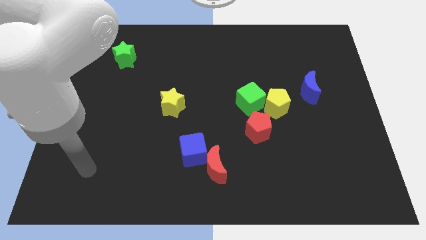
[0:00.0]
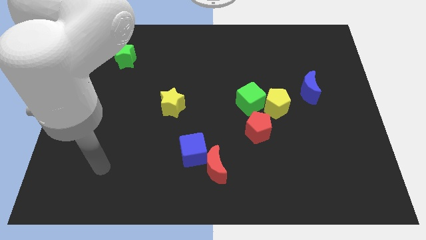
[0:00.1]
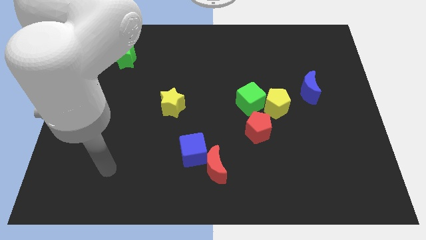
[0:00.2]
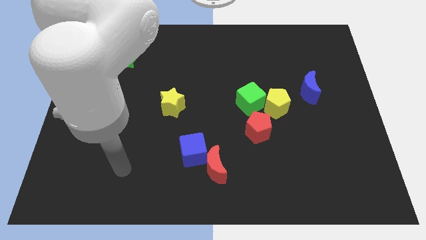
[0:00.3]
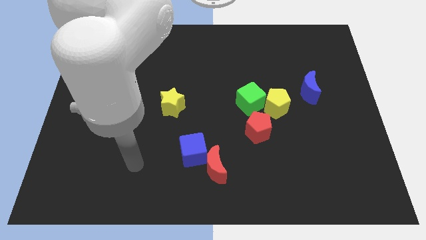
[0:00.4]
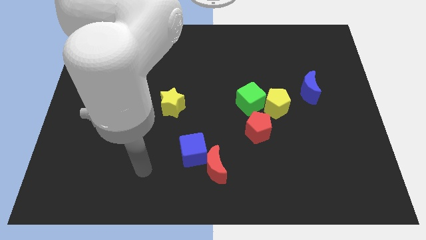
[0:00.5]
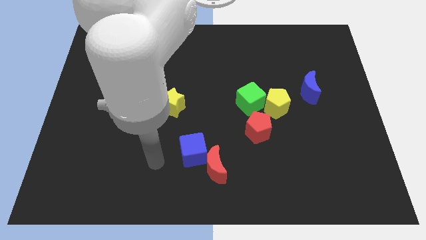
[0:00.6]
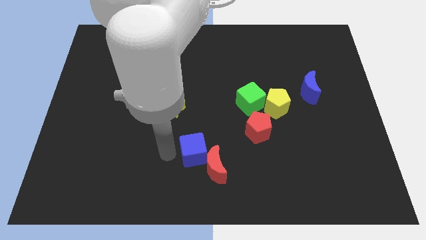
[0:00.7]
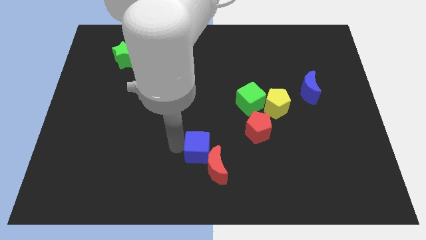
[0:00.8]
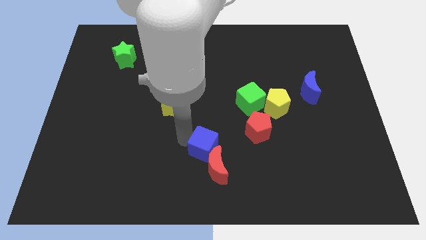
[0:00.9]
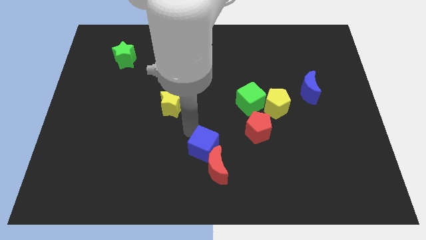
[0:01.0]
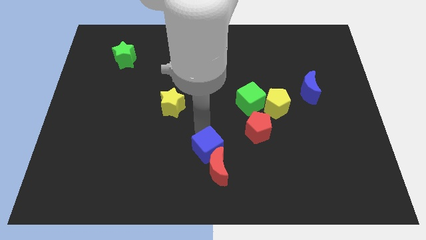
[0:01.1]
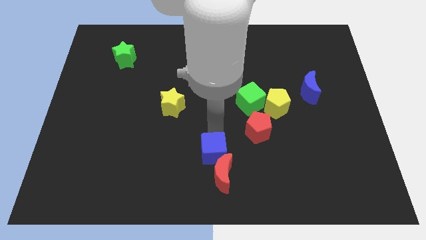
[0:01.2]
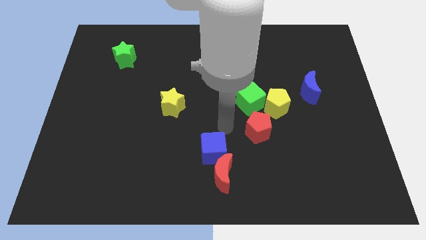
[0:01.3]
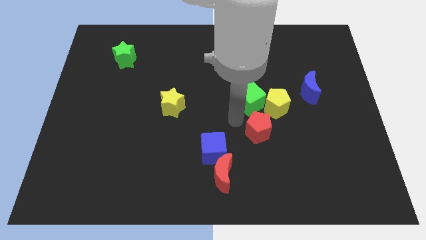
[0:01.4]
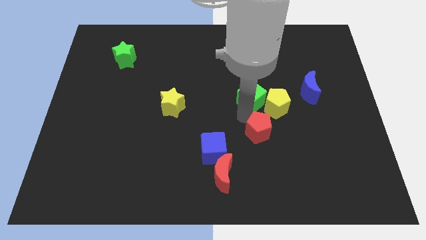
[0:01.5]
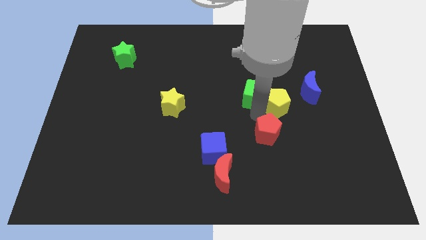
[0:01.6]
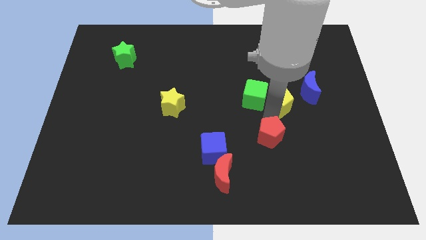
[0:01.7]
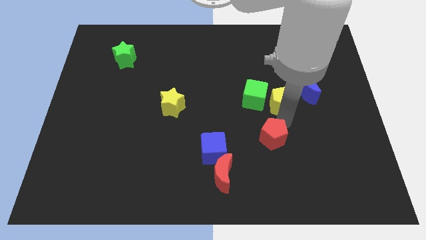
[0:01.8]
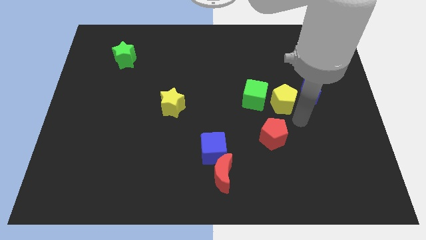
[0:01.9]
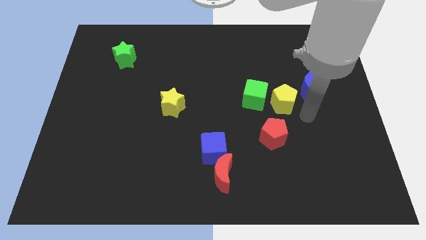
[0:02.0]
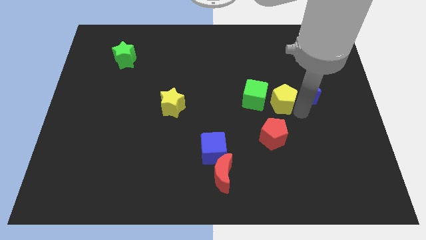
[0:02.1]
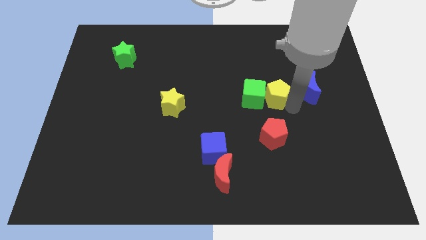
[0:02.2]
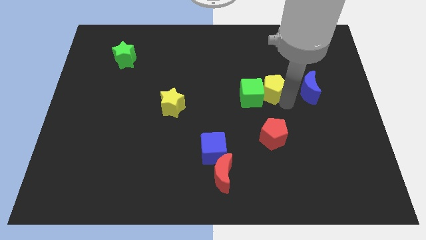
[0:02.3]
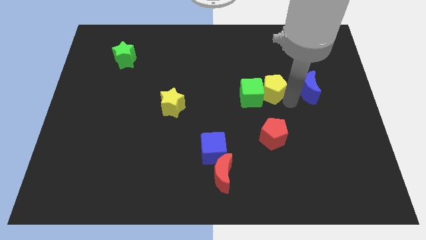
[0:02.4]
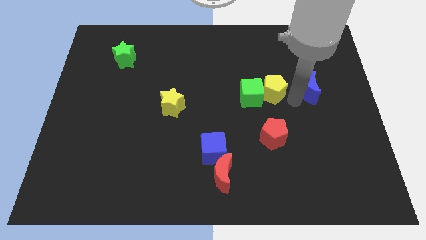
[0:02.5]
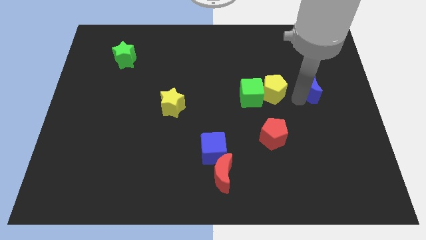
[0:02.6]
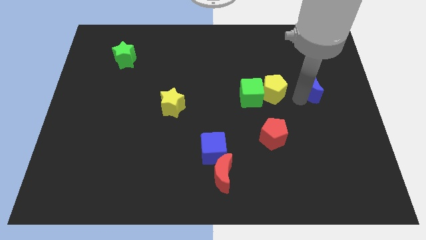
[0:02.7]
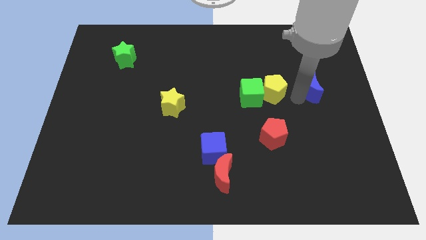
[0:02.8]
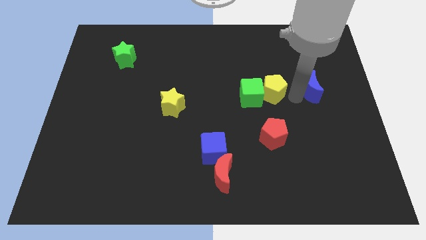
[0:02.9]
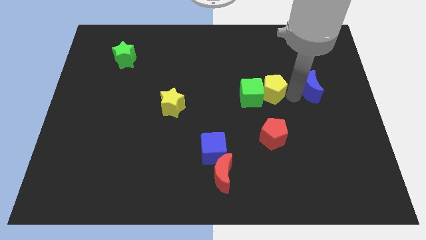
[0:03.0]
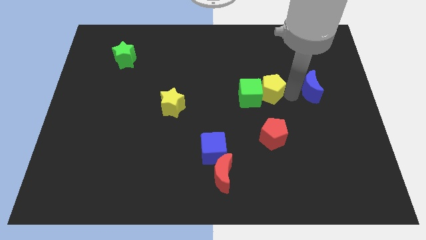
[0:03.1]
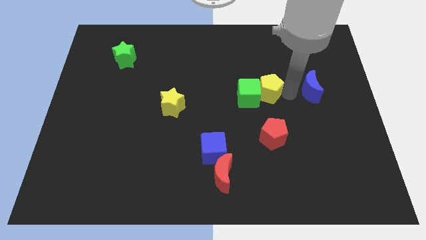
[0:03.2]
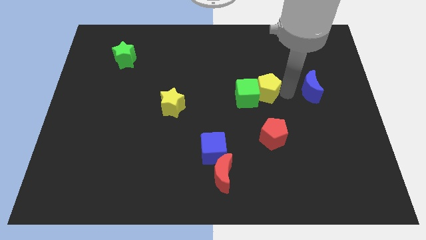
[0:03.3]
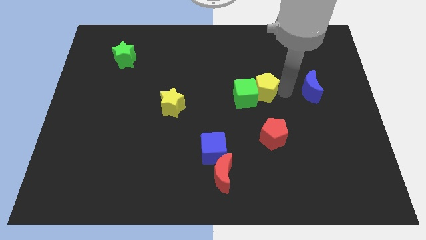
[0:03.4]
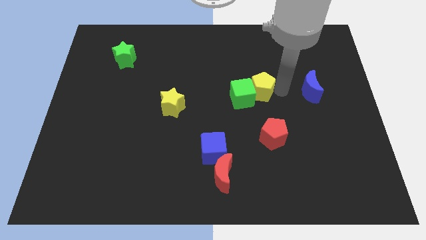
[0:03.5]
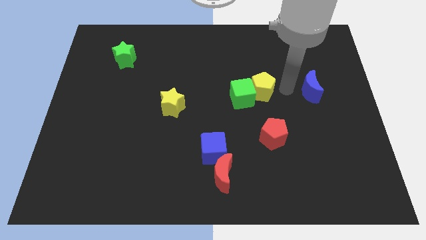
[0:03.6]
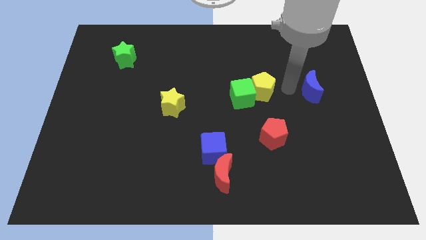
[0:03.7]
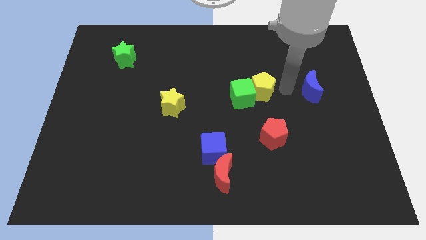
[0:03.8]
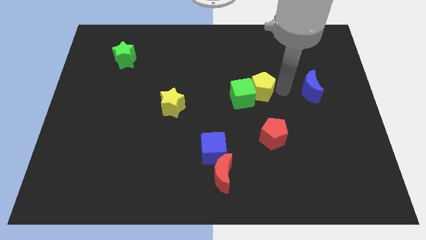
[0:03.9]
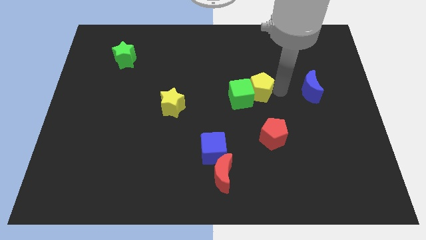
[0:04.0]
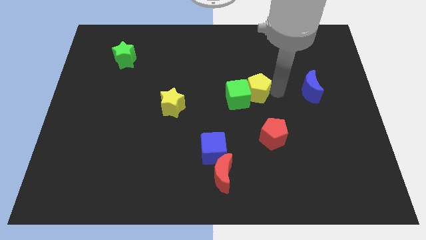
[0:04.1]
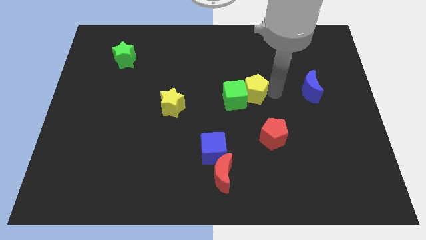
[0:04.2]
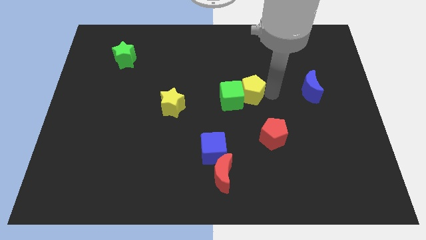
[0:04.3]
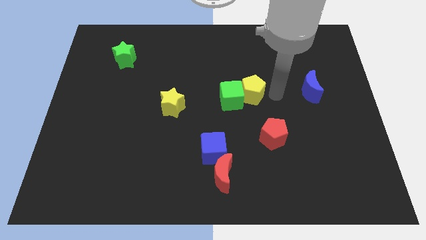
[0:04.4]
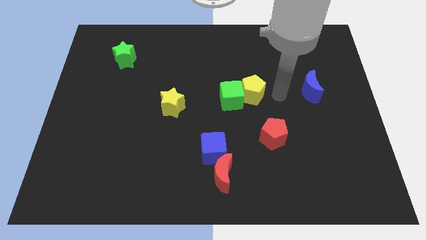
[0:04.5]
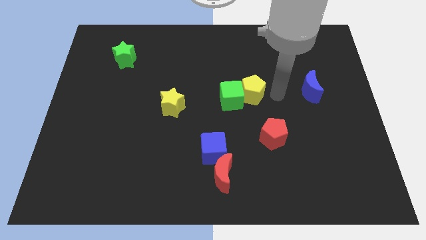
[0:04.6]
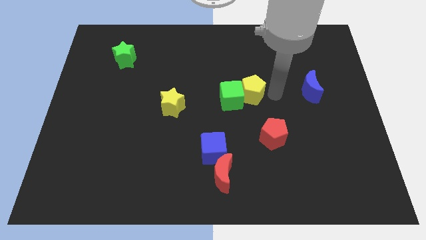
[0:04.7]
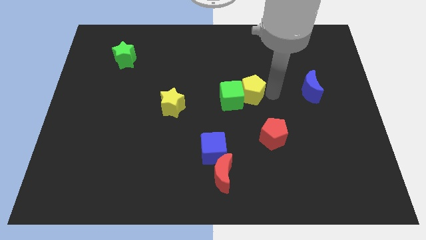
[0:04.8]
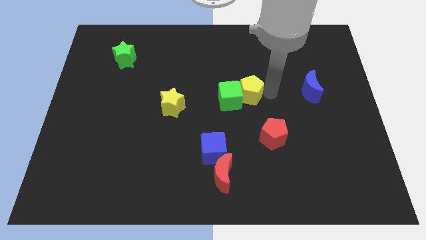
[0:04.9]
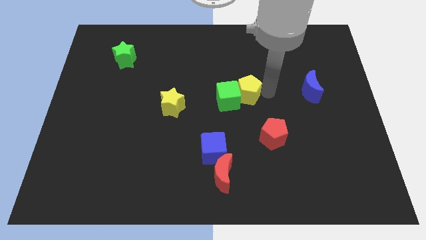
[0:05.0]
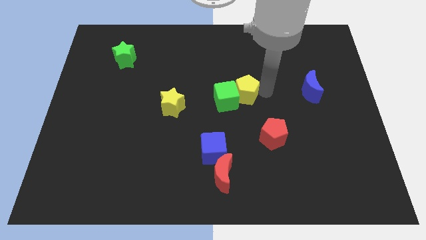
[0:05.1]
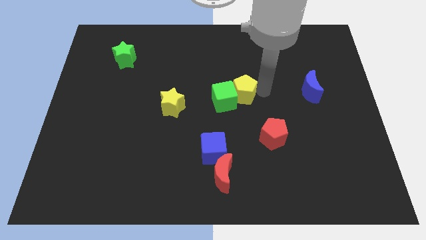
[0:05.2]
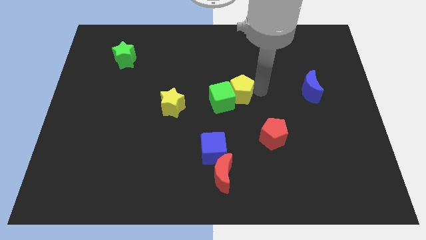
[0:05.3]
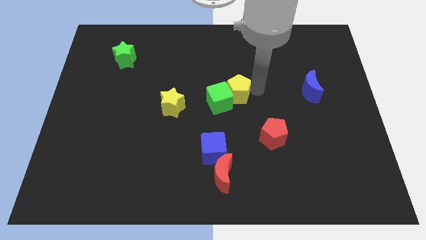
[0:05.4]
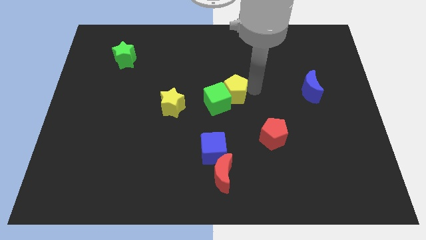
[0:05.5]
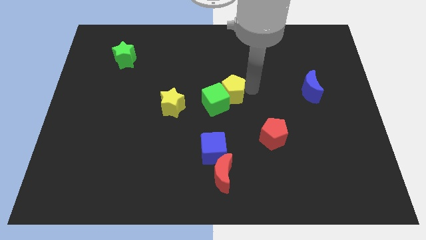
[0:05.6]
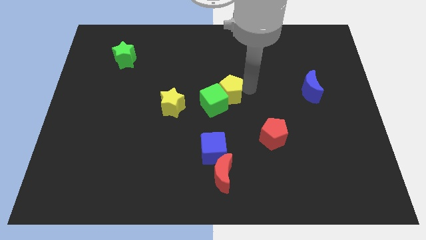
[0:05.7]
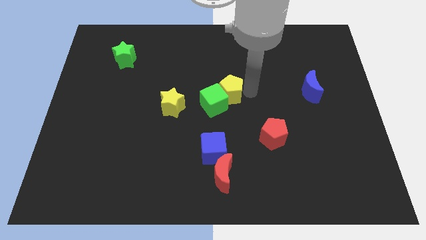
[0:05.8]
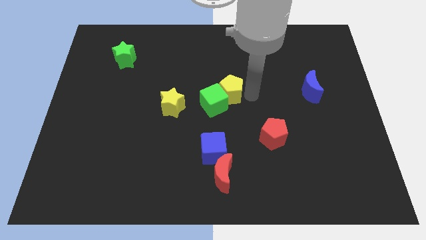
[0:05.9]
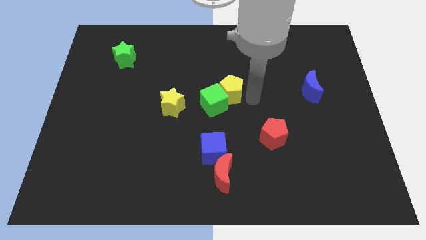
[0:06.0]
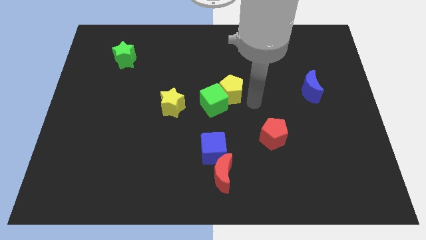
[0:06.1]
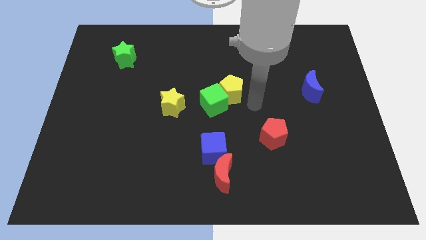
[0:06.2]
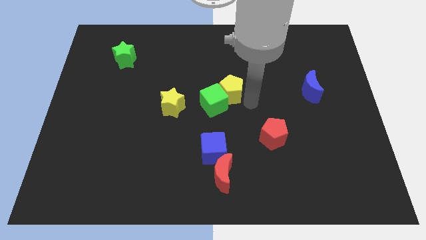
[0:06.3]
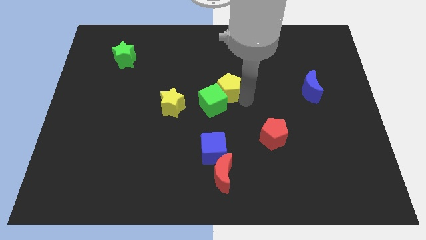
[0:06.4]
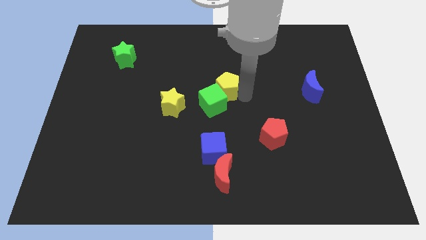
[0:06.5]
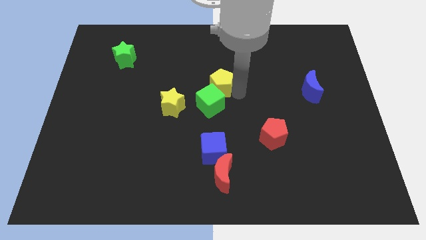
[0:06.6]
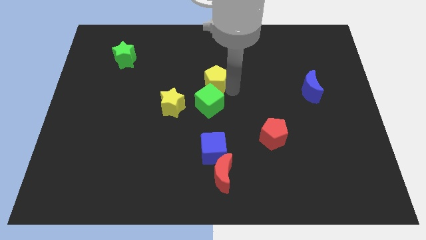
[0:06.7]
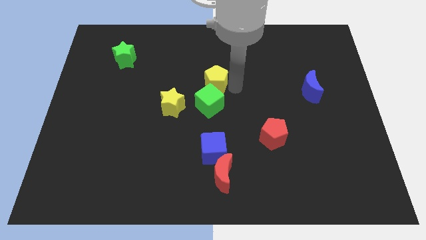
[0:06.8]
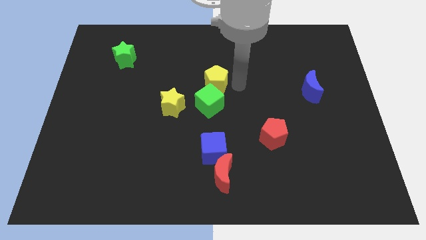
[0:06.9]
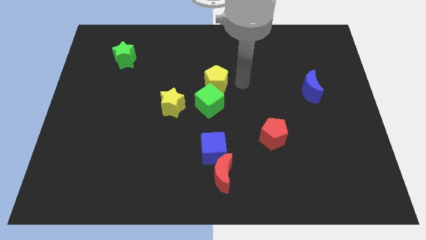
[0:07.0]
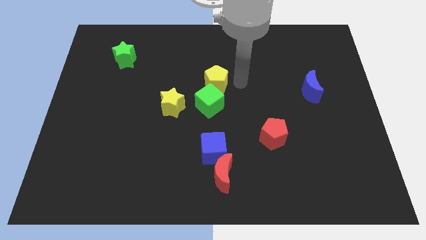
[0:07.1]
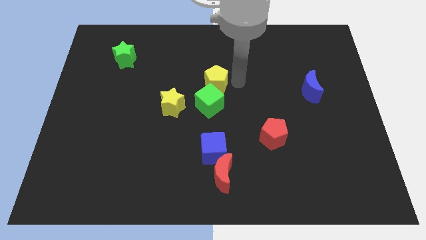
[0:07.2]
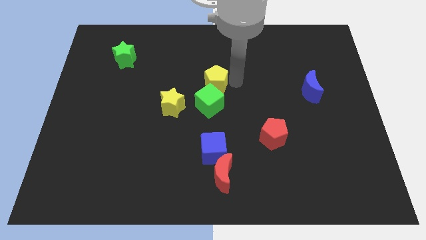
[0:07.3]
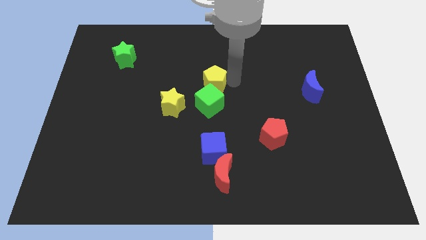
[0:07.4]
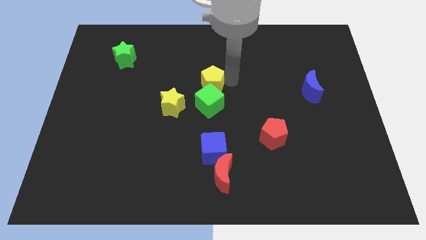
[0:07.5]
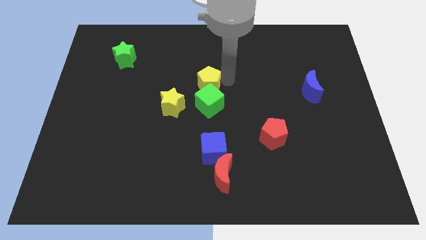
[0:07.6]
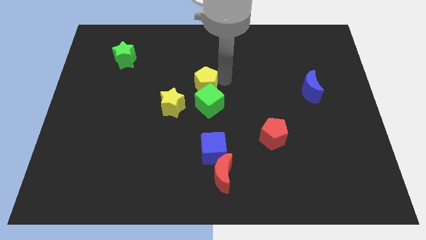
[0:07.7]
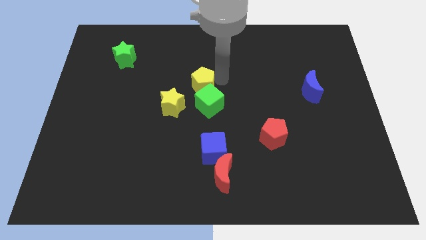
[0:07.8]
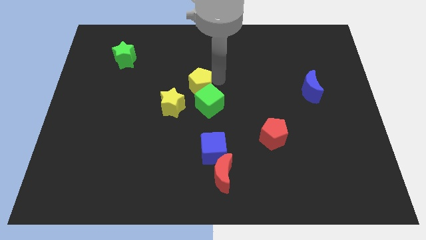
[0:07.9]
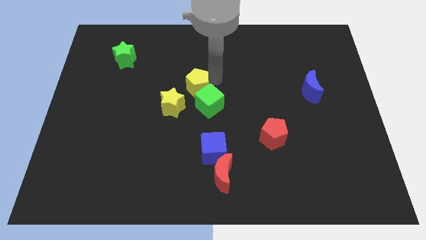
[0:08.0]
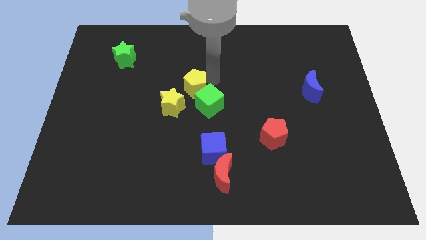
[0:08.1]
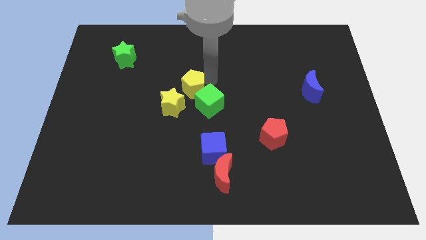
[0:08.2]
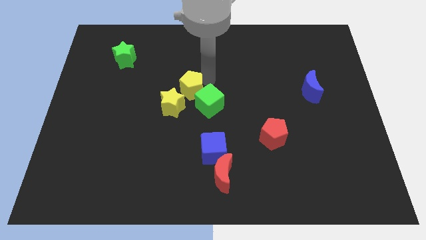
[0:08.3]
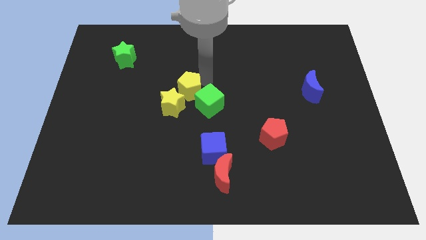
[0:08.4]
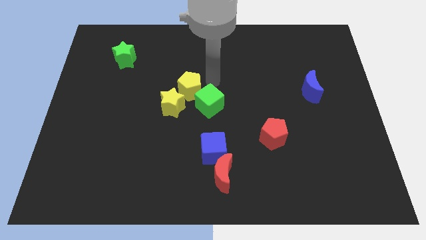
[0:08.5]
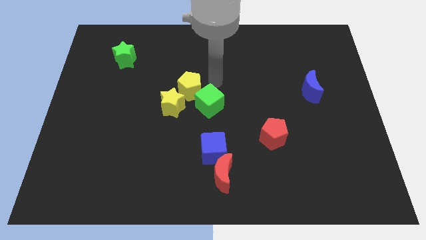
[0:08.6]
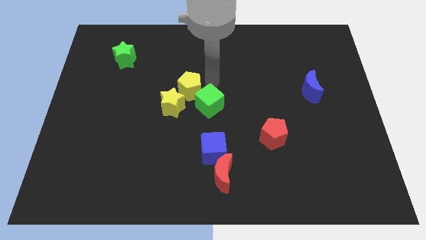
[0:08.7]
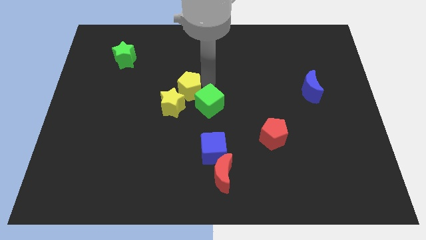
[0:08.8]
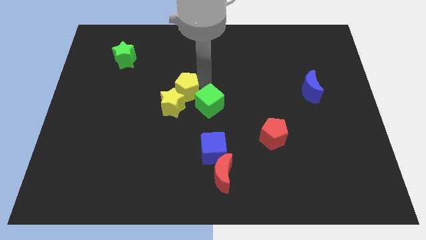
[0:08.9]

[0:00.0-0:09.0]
move the yellow pentagon to the left
